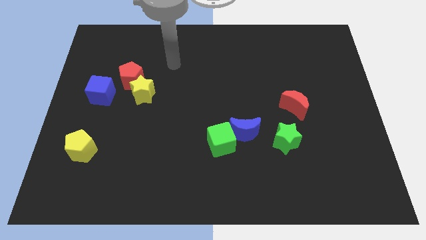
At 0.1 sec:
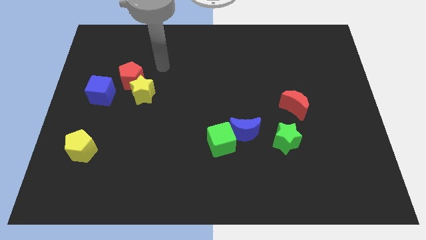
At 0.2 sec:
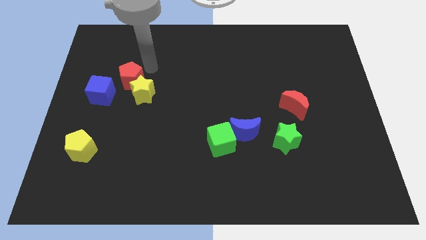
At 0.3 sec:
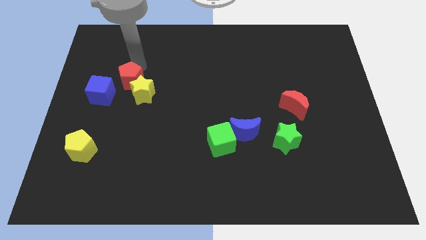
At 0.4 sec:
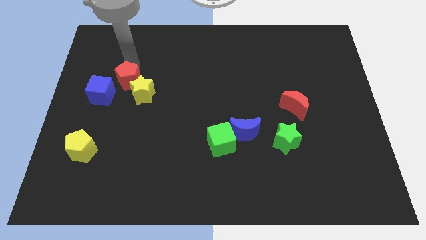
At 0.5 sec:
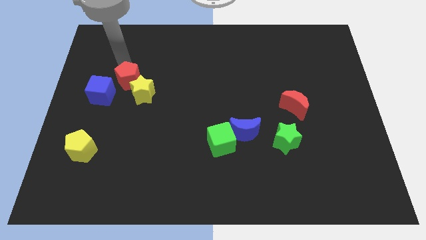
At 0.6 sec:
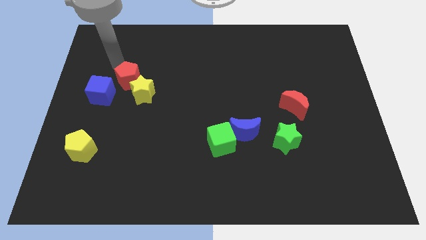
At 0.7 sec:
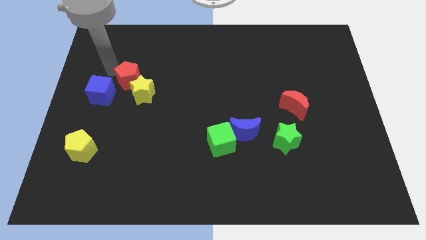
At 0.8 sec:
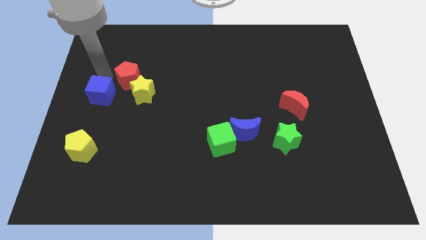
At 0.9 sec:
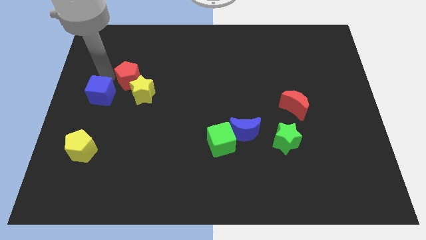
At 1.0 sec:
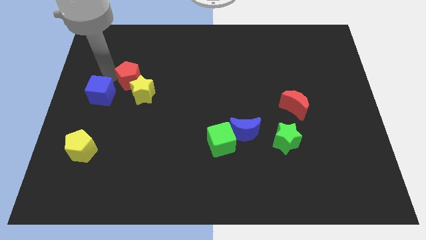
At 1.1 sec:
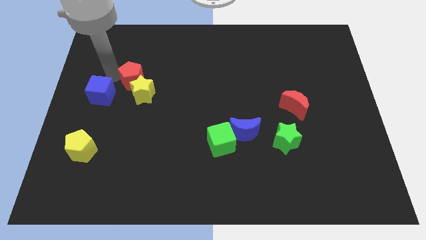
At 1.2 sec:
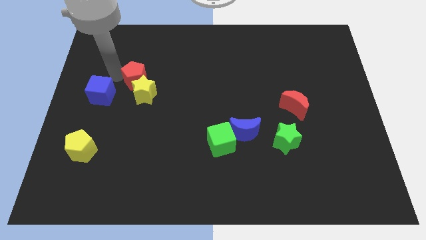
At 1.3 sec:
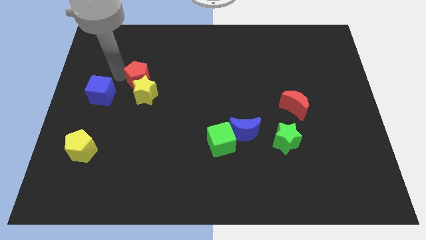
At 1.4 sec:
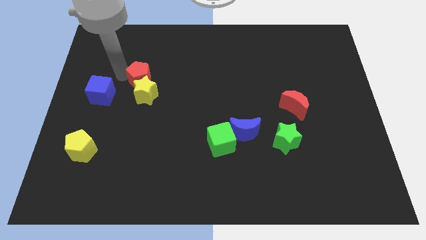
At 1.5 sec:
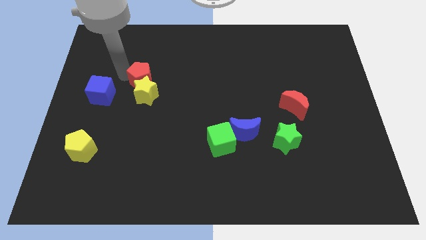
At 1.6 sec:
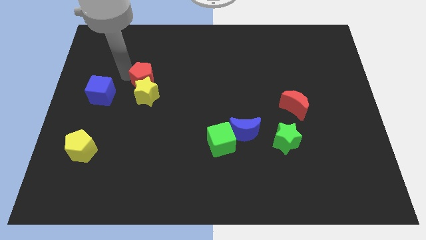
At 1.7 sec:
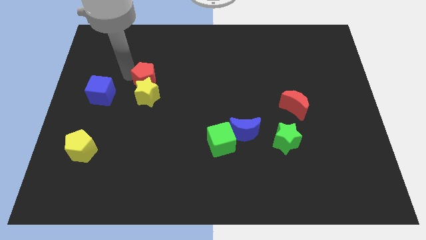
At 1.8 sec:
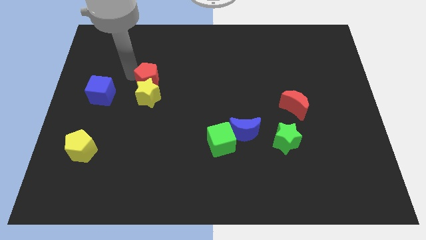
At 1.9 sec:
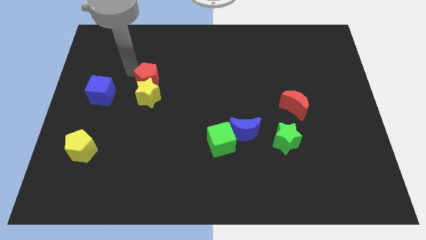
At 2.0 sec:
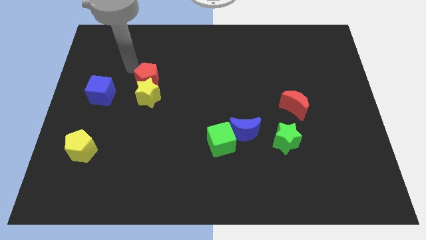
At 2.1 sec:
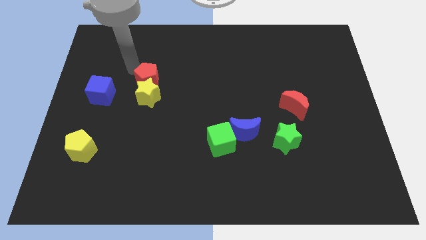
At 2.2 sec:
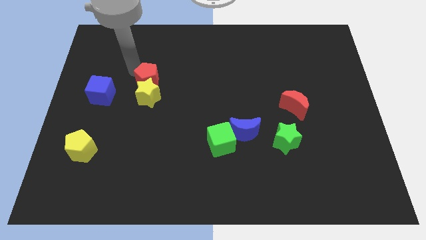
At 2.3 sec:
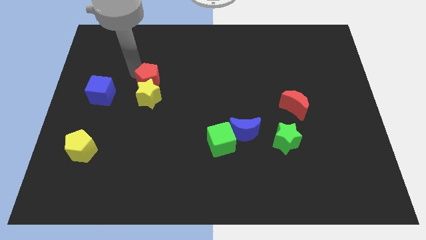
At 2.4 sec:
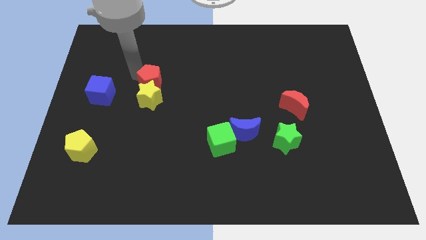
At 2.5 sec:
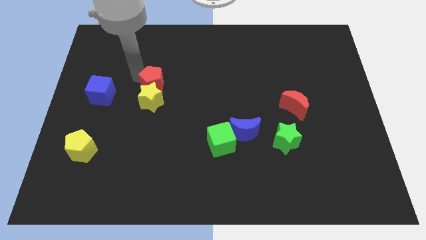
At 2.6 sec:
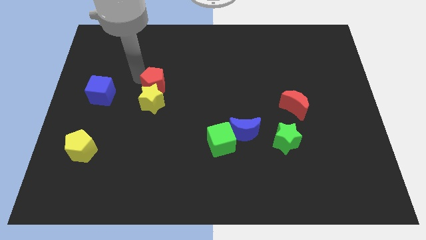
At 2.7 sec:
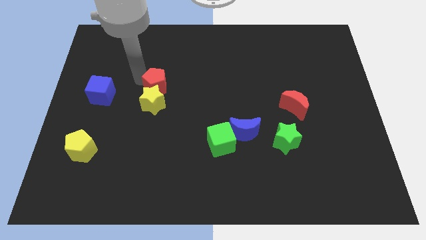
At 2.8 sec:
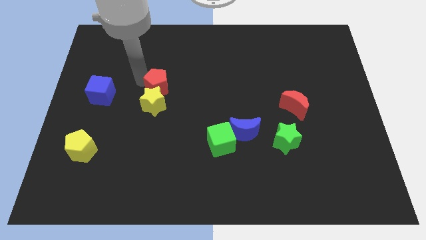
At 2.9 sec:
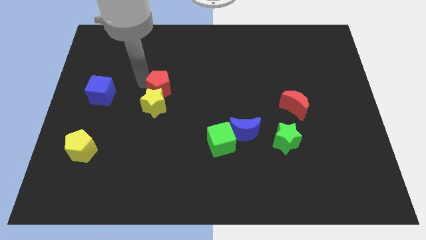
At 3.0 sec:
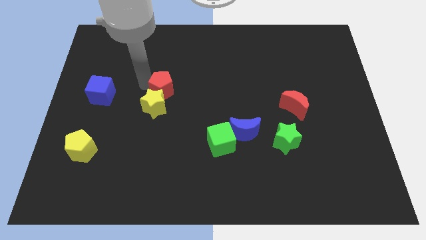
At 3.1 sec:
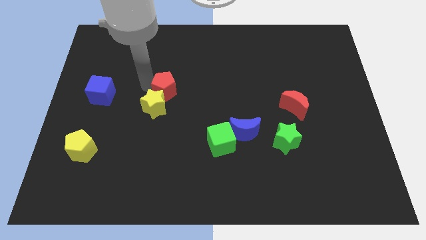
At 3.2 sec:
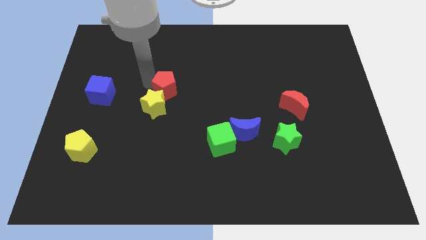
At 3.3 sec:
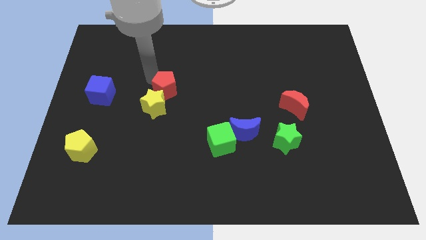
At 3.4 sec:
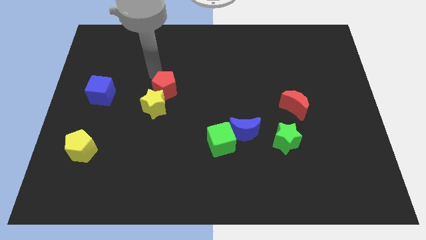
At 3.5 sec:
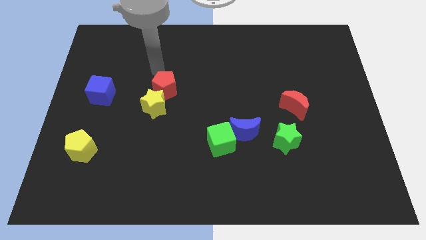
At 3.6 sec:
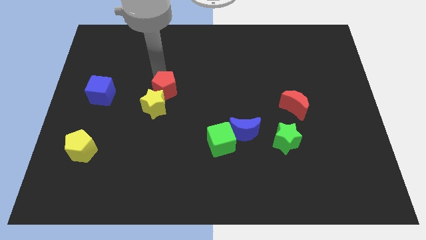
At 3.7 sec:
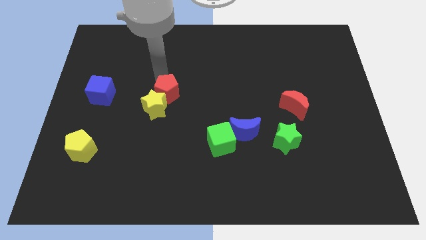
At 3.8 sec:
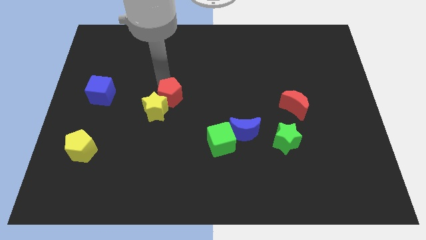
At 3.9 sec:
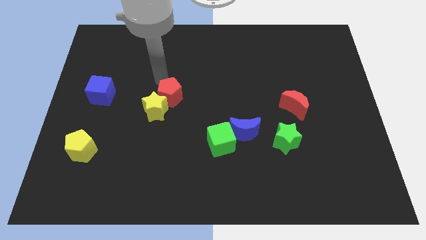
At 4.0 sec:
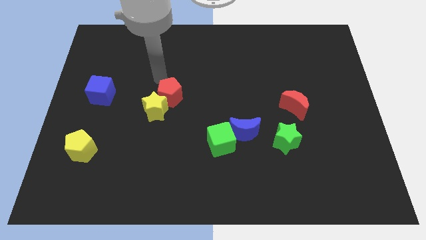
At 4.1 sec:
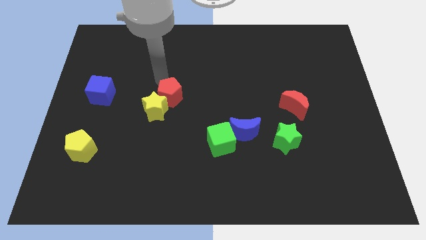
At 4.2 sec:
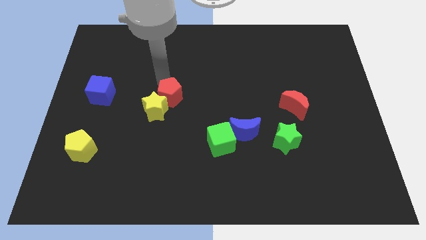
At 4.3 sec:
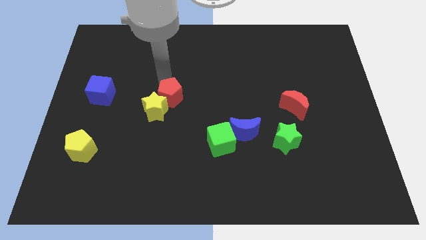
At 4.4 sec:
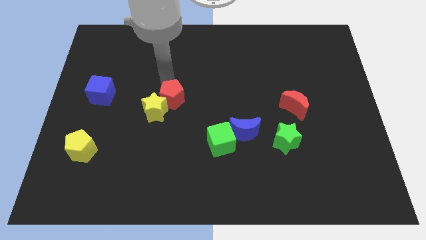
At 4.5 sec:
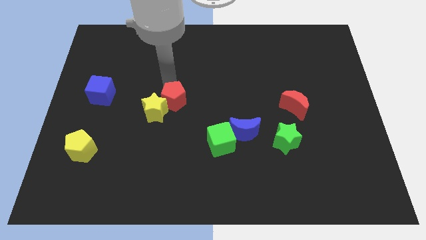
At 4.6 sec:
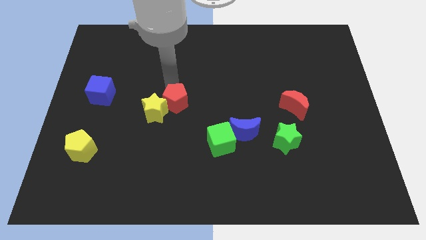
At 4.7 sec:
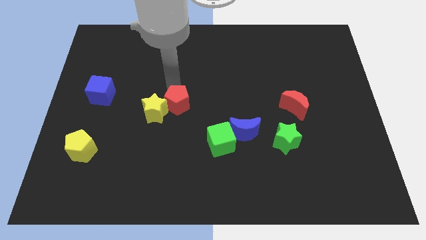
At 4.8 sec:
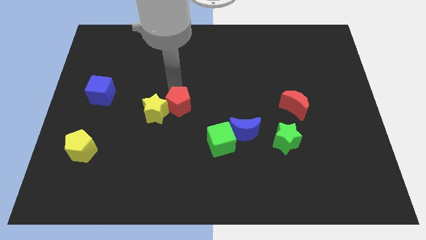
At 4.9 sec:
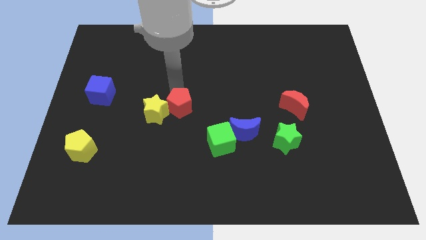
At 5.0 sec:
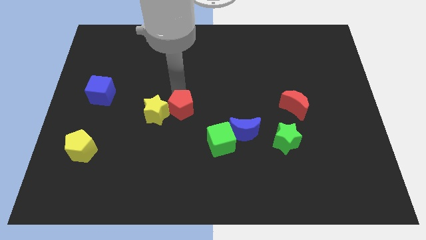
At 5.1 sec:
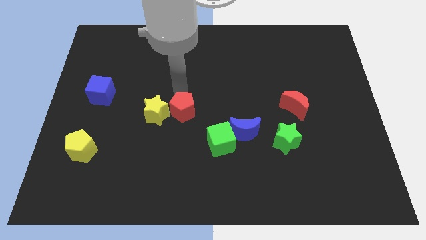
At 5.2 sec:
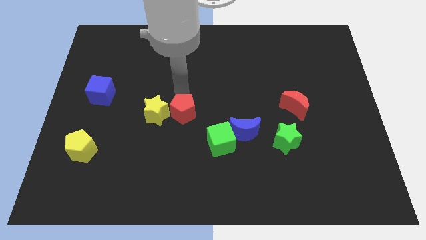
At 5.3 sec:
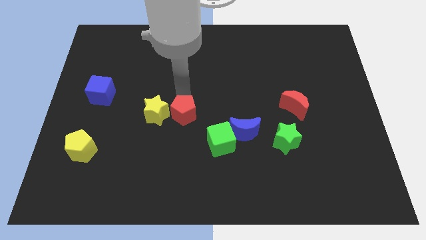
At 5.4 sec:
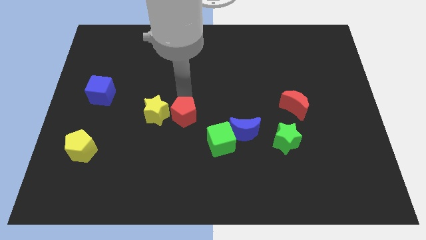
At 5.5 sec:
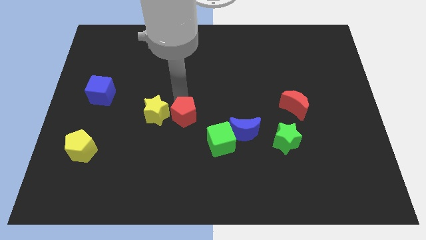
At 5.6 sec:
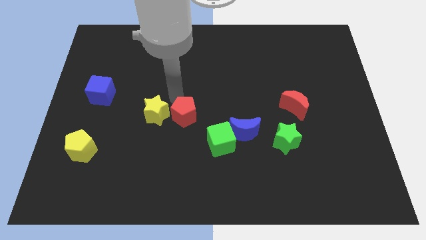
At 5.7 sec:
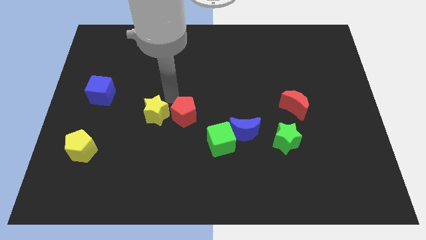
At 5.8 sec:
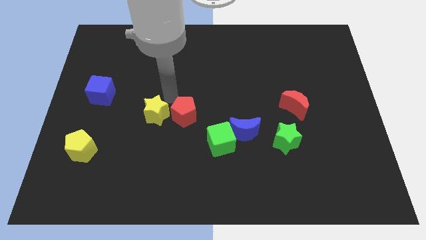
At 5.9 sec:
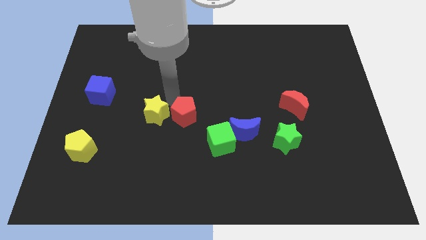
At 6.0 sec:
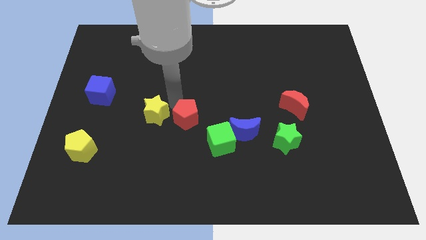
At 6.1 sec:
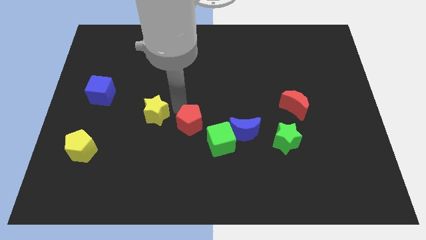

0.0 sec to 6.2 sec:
move the red pentagon downwards and right

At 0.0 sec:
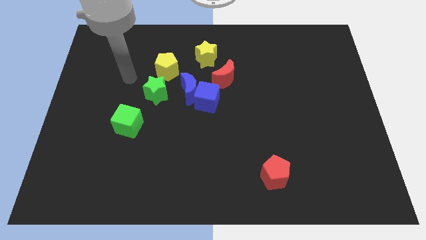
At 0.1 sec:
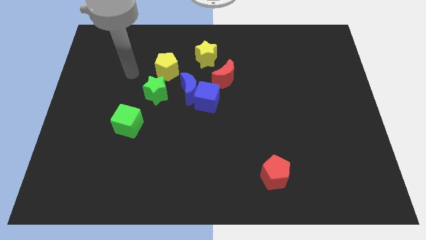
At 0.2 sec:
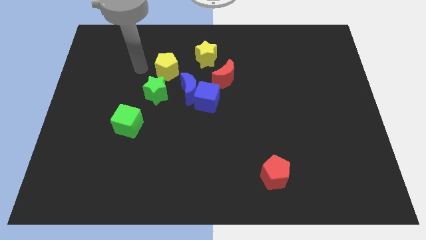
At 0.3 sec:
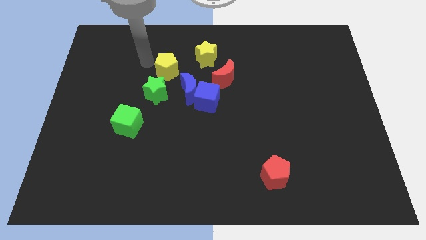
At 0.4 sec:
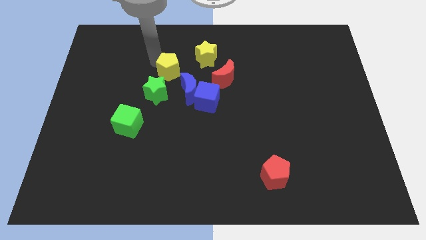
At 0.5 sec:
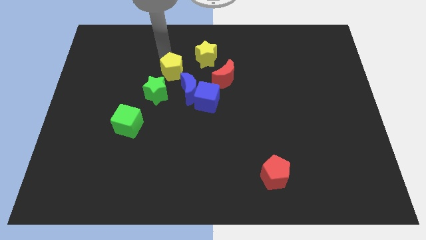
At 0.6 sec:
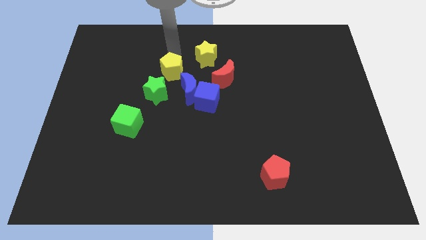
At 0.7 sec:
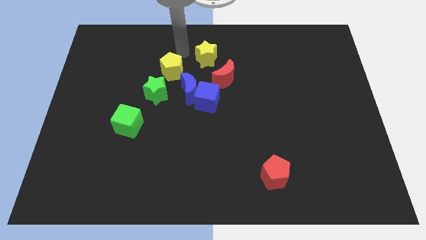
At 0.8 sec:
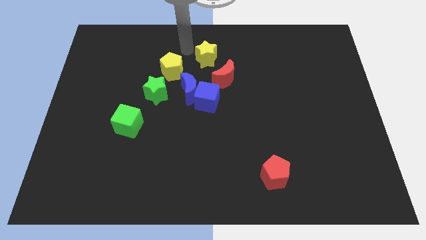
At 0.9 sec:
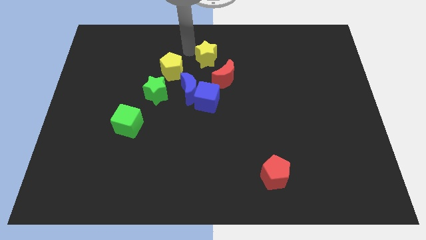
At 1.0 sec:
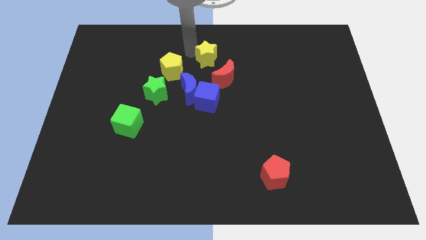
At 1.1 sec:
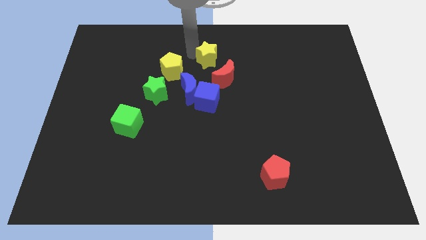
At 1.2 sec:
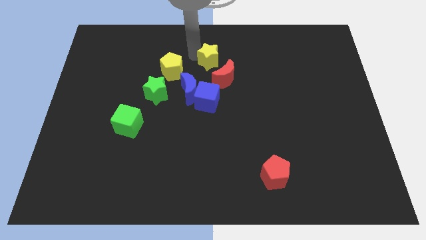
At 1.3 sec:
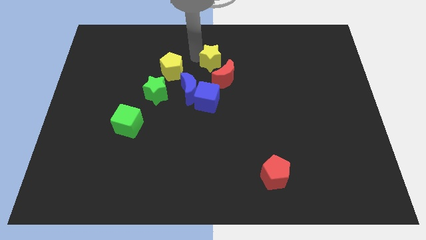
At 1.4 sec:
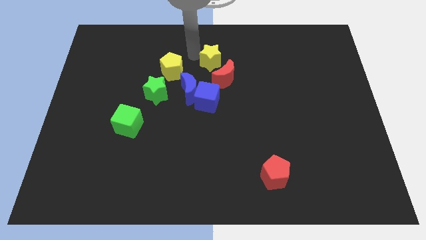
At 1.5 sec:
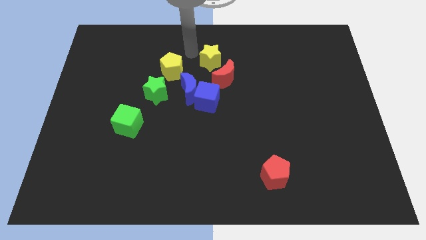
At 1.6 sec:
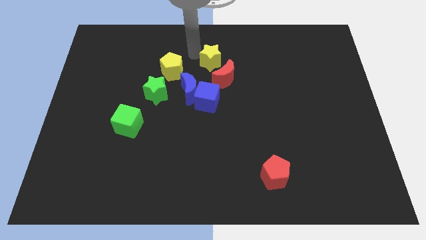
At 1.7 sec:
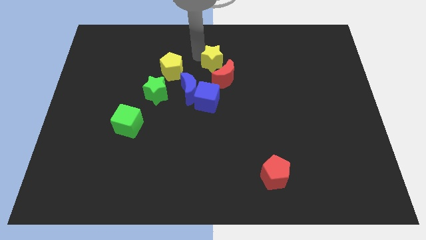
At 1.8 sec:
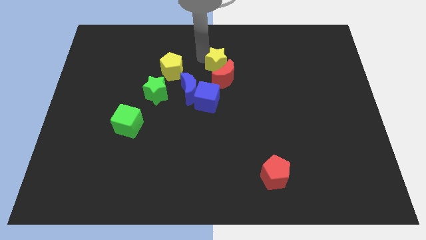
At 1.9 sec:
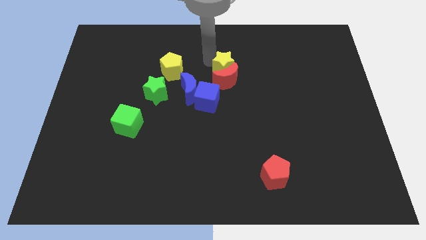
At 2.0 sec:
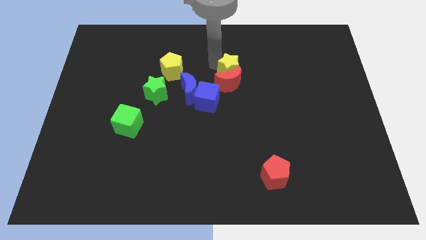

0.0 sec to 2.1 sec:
push the yellow star slightly diagonally downwards and right

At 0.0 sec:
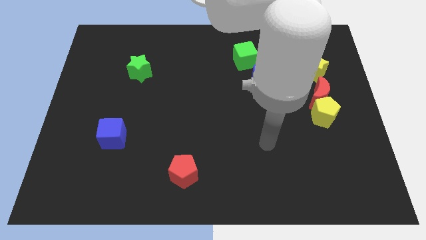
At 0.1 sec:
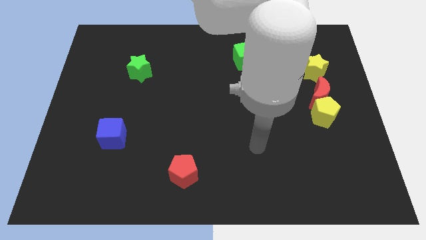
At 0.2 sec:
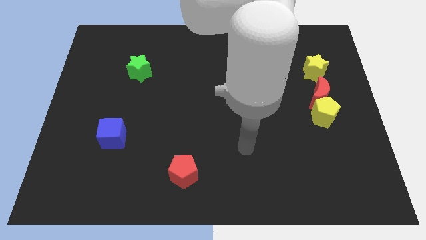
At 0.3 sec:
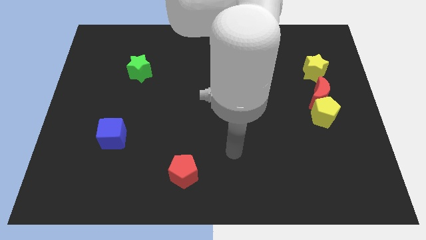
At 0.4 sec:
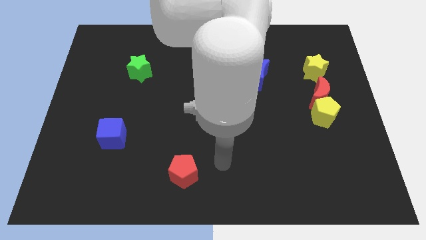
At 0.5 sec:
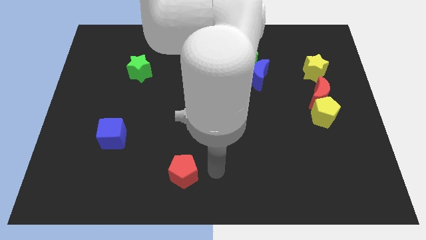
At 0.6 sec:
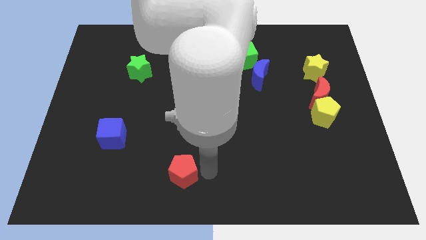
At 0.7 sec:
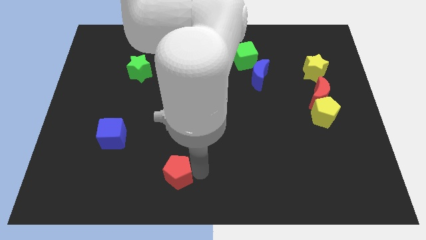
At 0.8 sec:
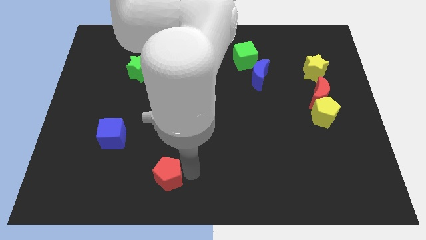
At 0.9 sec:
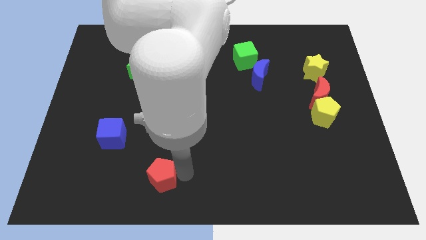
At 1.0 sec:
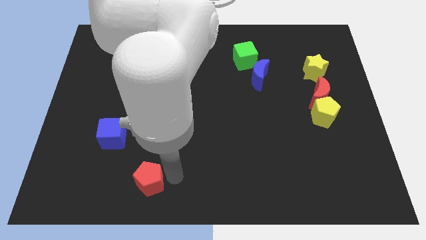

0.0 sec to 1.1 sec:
slide the red pentagon left somewhat
